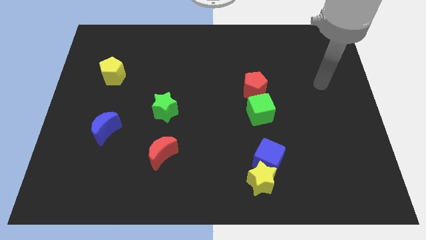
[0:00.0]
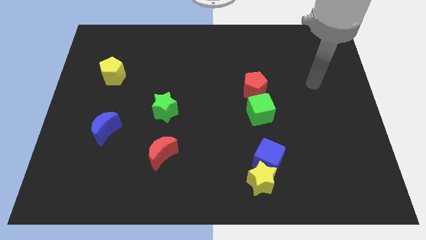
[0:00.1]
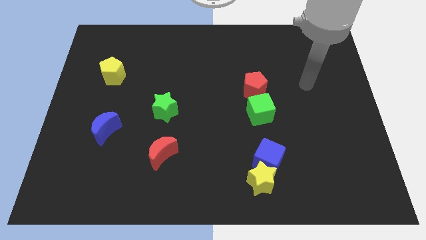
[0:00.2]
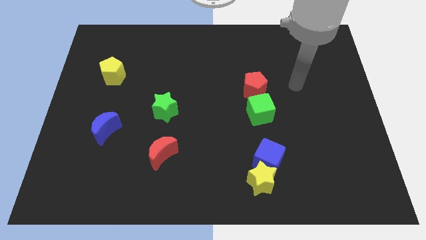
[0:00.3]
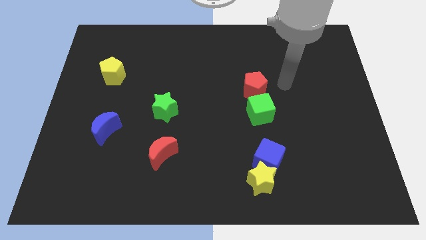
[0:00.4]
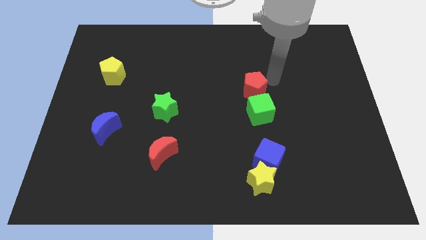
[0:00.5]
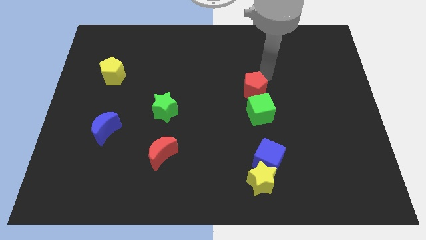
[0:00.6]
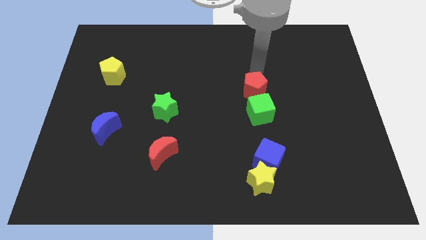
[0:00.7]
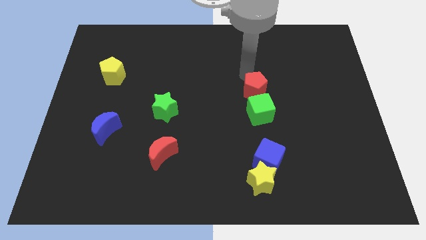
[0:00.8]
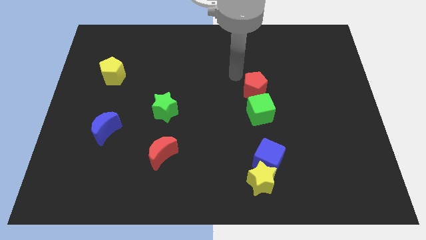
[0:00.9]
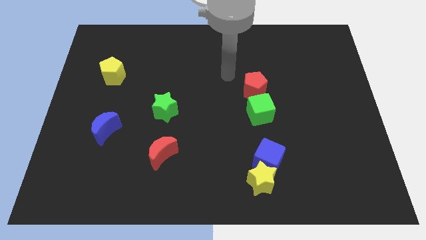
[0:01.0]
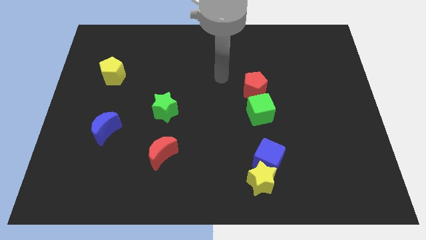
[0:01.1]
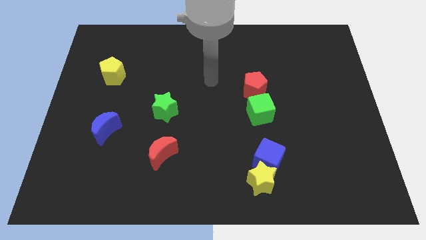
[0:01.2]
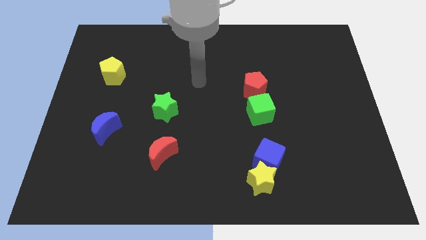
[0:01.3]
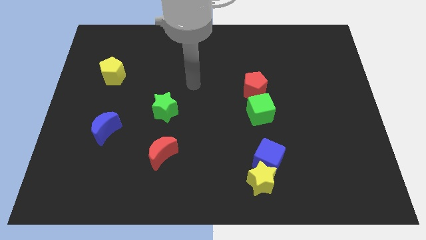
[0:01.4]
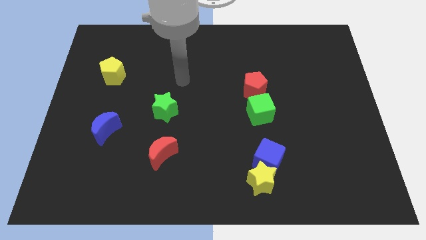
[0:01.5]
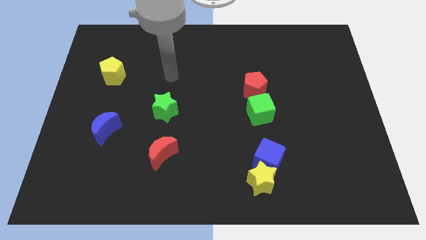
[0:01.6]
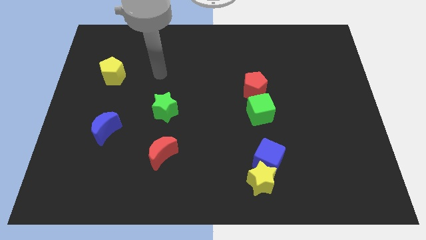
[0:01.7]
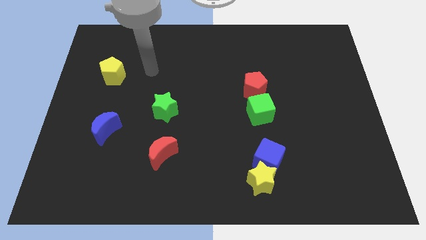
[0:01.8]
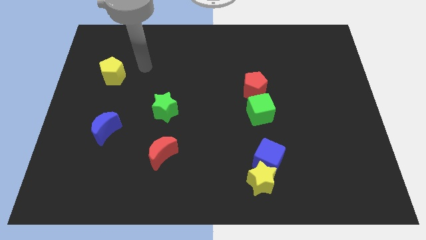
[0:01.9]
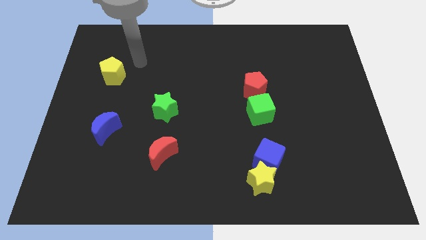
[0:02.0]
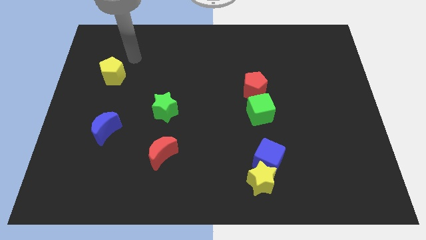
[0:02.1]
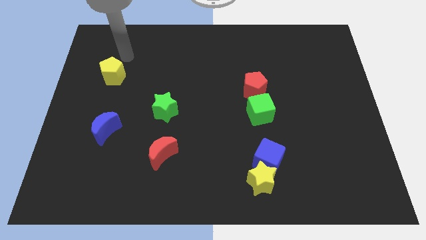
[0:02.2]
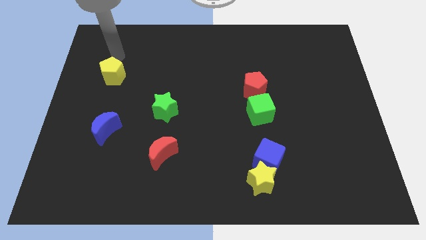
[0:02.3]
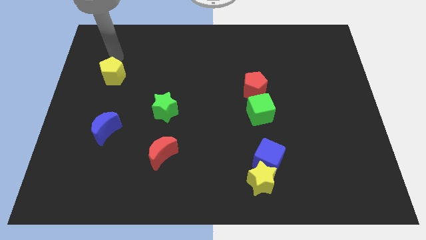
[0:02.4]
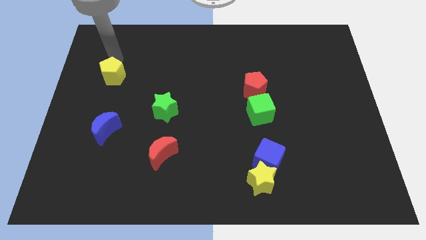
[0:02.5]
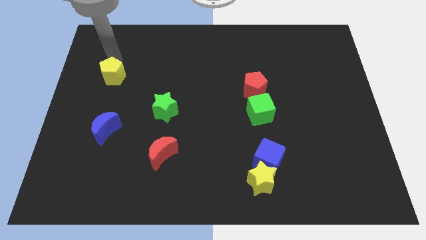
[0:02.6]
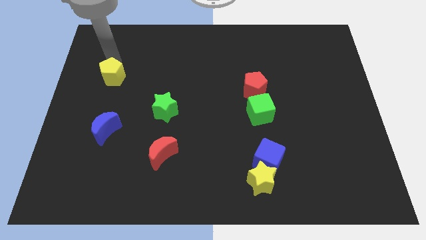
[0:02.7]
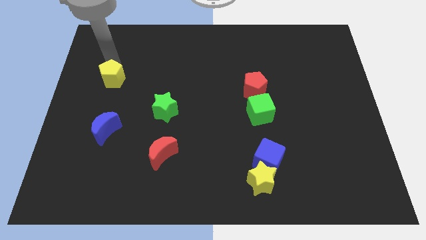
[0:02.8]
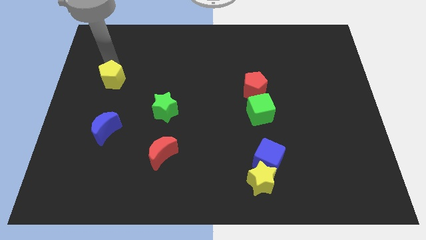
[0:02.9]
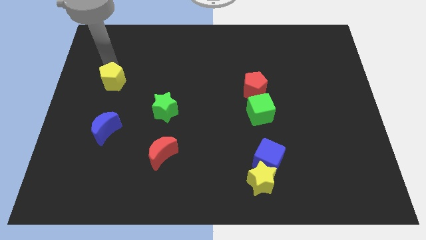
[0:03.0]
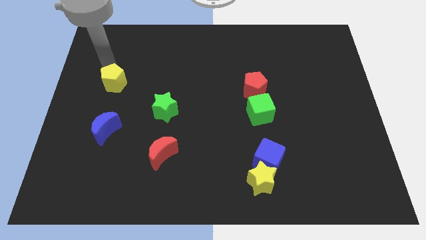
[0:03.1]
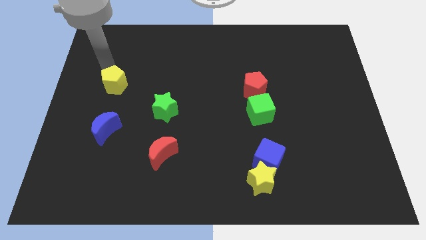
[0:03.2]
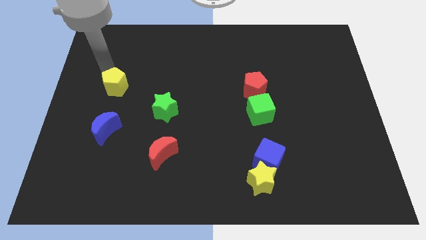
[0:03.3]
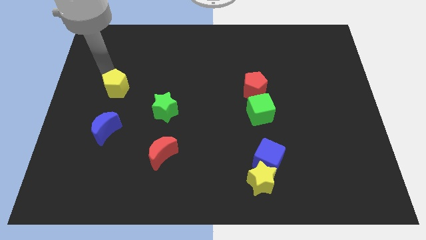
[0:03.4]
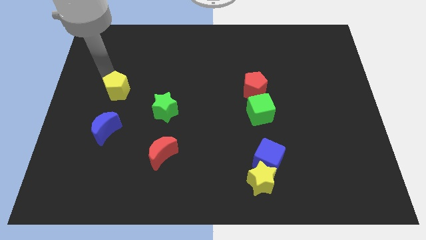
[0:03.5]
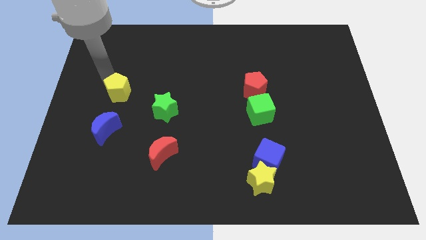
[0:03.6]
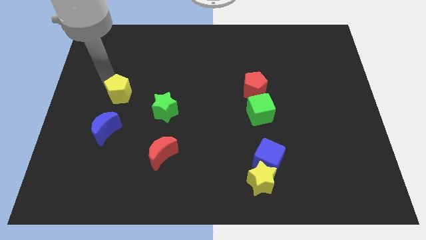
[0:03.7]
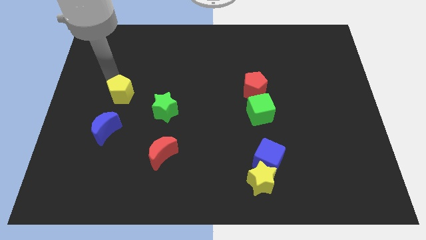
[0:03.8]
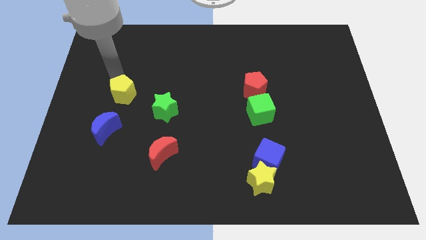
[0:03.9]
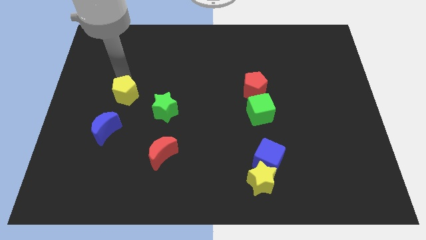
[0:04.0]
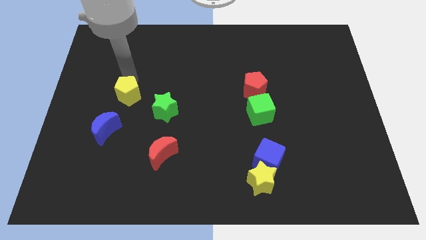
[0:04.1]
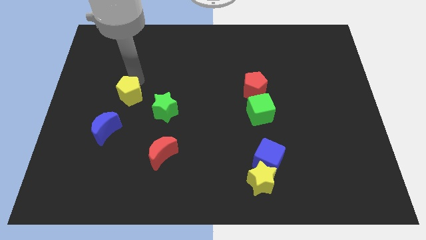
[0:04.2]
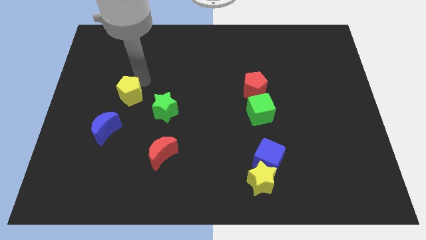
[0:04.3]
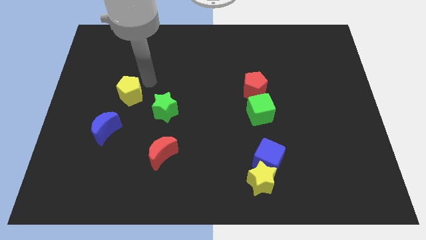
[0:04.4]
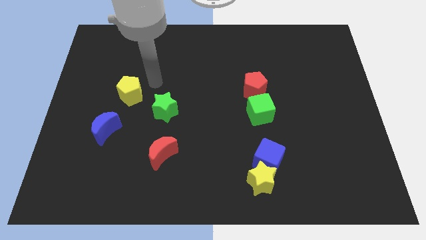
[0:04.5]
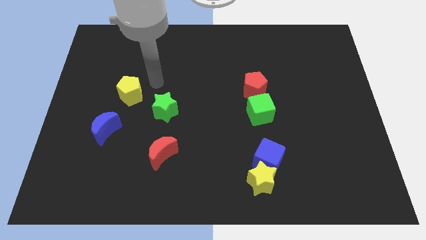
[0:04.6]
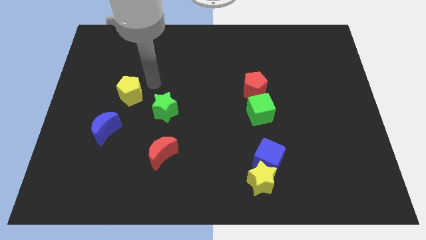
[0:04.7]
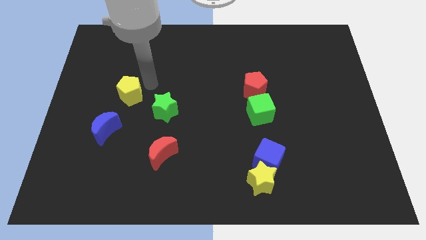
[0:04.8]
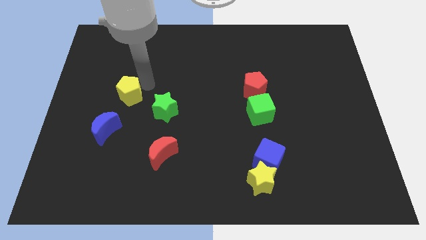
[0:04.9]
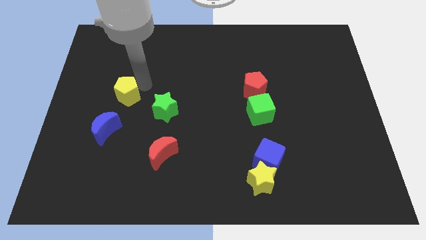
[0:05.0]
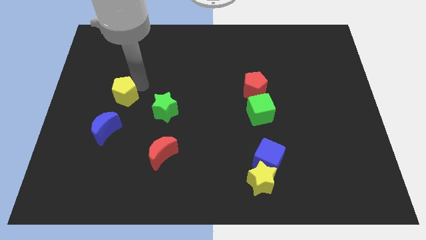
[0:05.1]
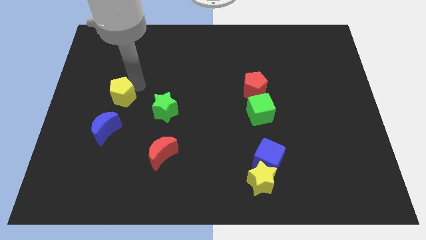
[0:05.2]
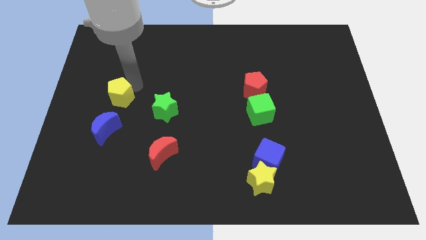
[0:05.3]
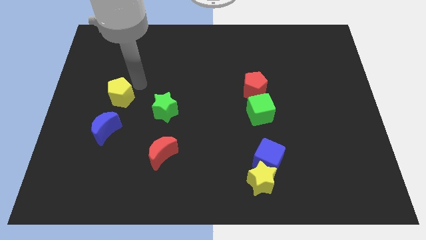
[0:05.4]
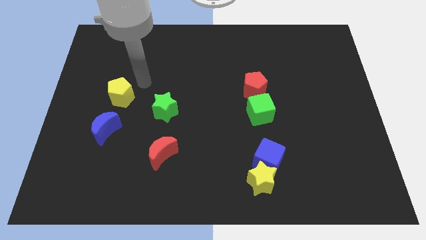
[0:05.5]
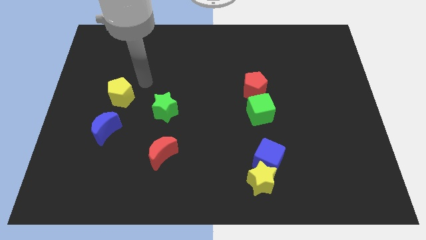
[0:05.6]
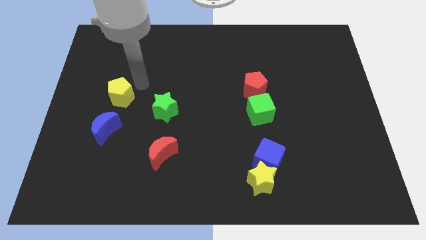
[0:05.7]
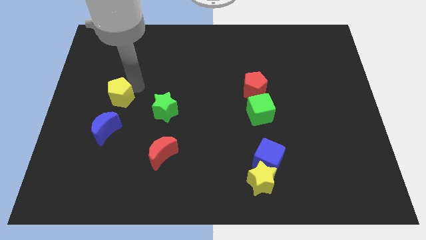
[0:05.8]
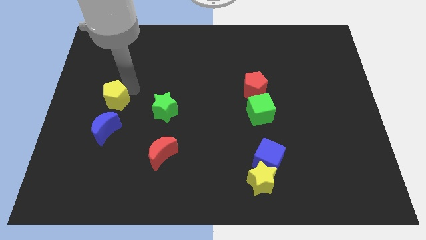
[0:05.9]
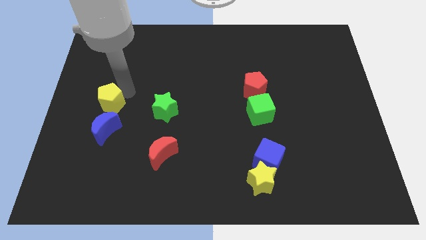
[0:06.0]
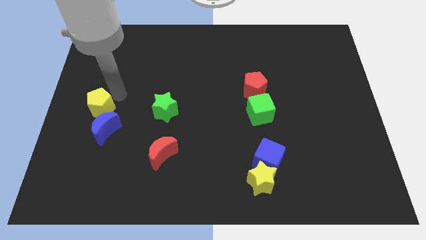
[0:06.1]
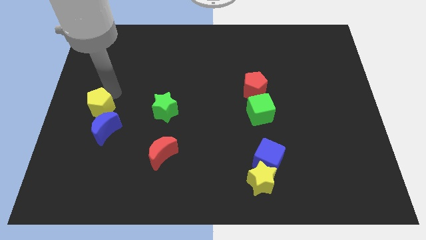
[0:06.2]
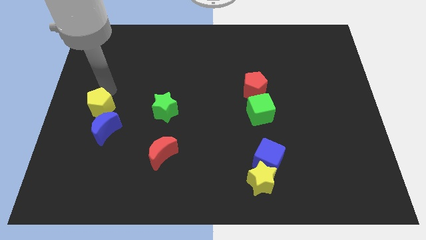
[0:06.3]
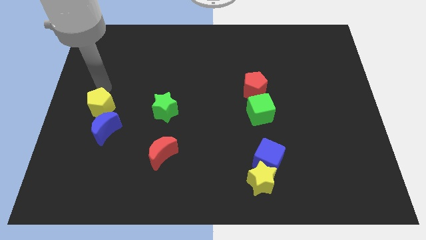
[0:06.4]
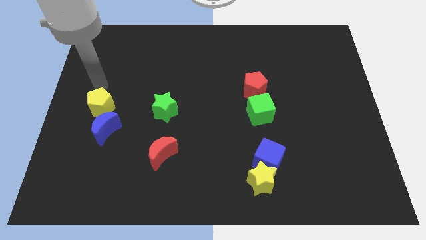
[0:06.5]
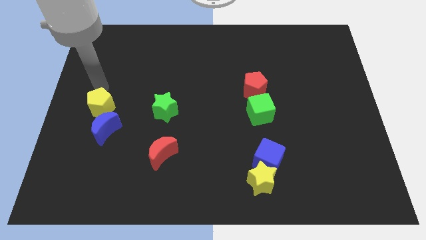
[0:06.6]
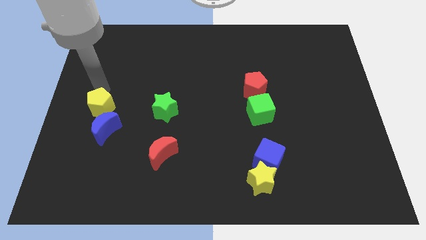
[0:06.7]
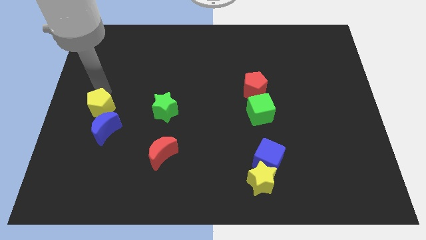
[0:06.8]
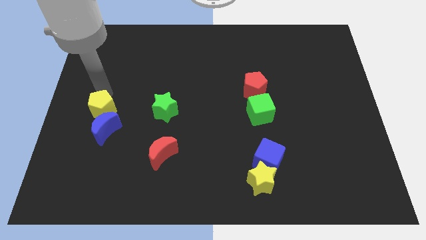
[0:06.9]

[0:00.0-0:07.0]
put the yellow pentagon to the blue moon

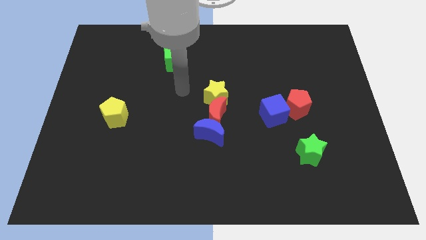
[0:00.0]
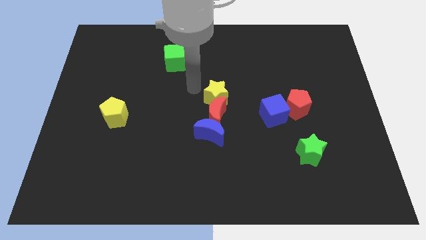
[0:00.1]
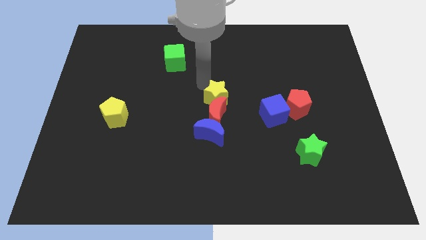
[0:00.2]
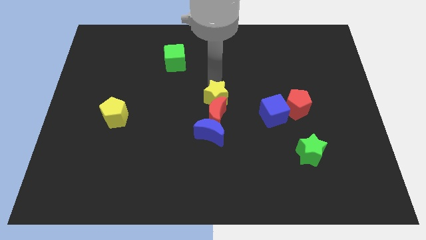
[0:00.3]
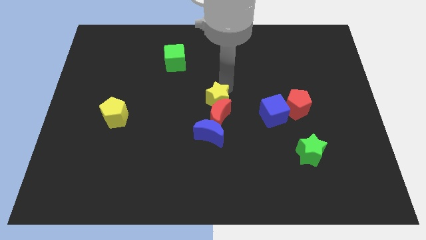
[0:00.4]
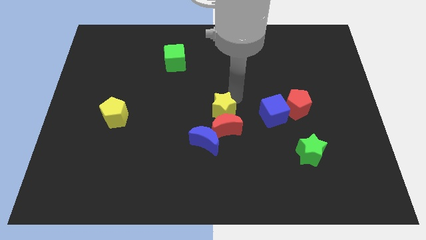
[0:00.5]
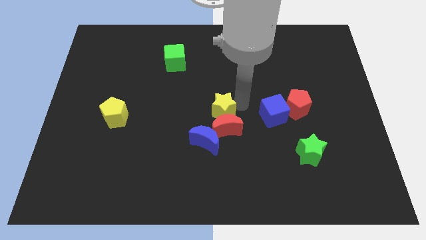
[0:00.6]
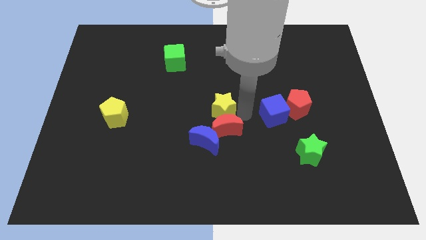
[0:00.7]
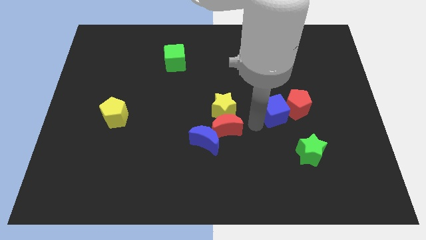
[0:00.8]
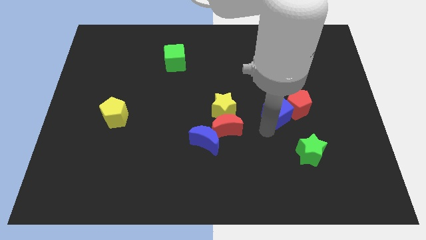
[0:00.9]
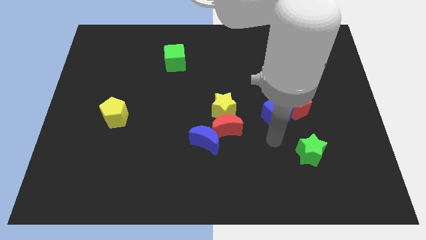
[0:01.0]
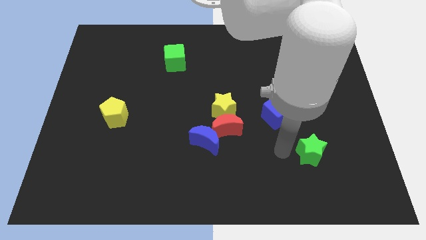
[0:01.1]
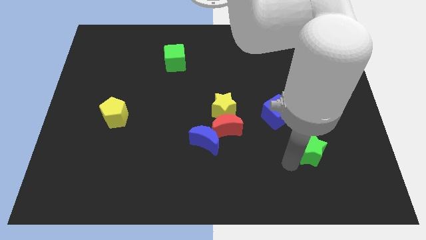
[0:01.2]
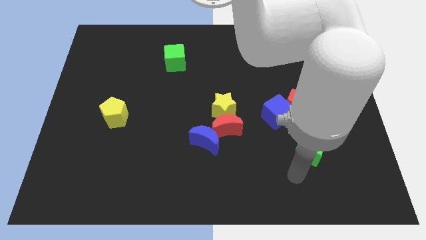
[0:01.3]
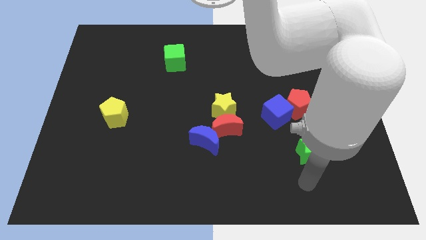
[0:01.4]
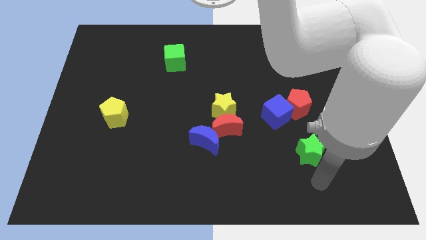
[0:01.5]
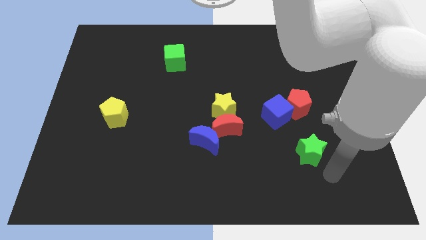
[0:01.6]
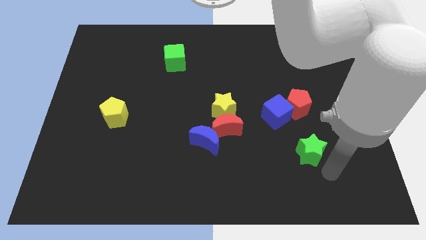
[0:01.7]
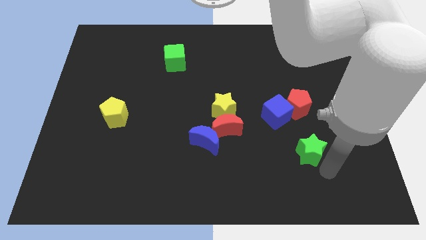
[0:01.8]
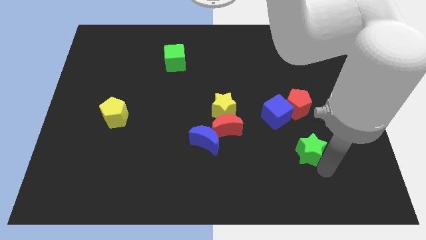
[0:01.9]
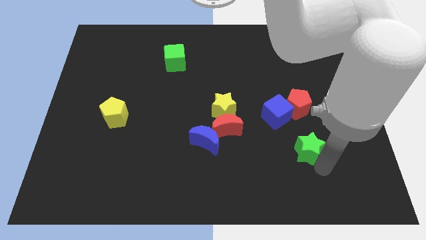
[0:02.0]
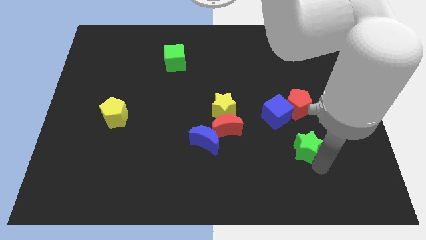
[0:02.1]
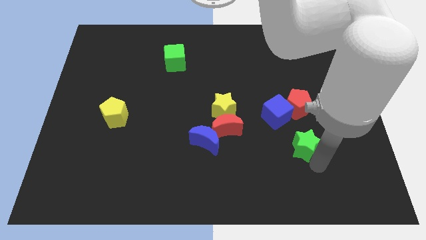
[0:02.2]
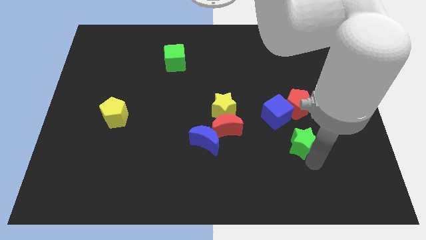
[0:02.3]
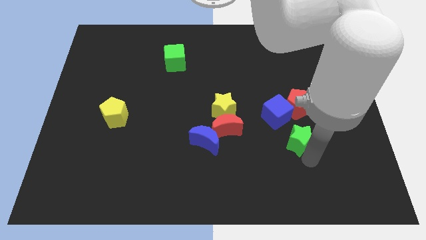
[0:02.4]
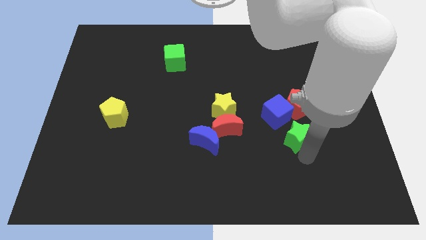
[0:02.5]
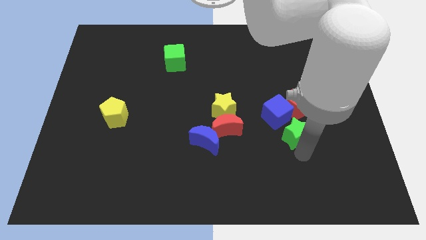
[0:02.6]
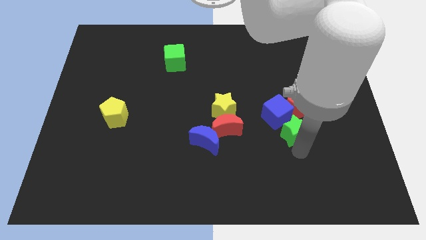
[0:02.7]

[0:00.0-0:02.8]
slide the green star to the blue cube
